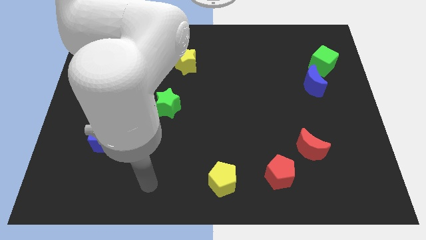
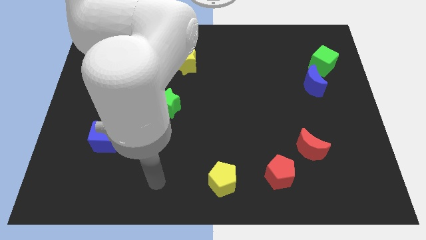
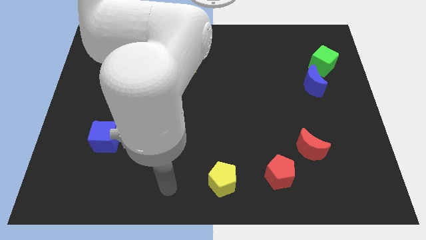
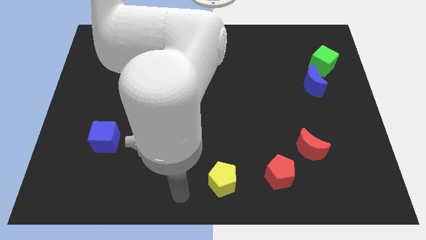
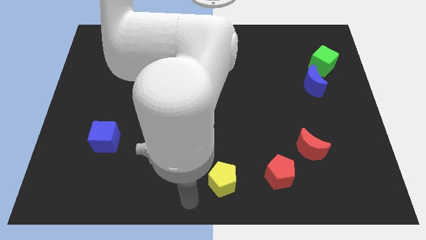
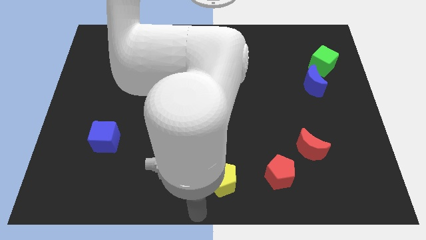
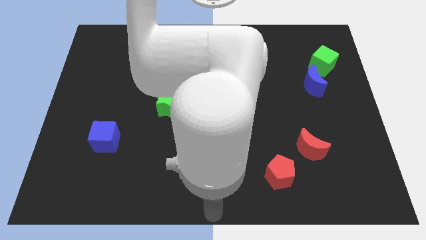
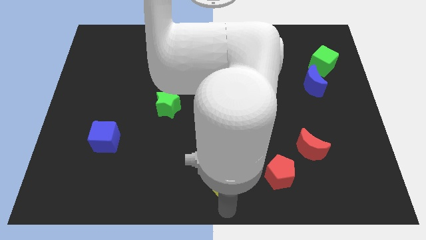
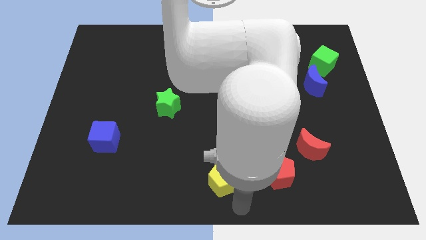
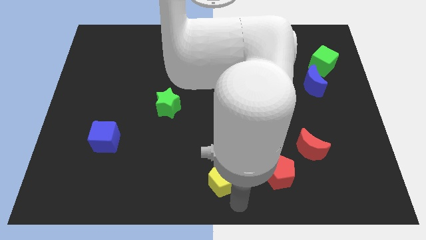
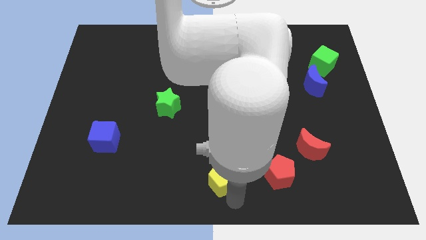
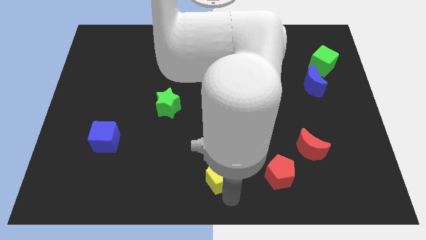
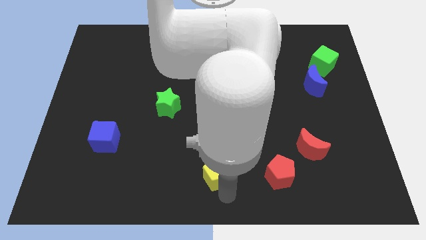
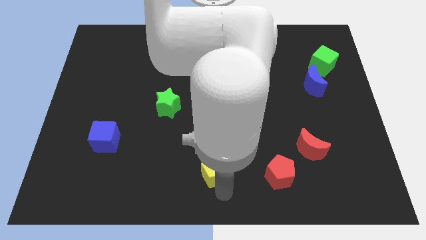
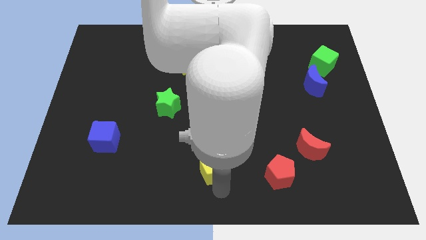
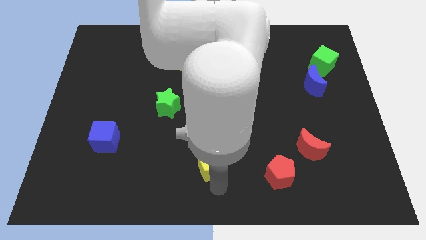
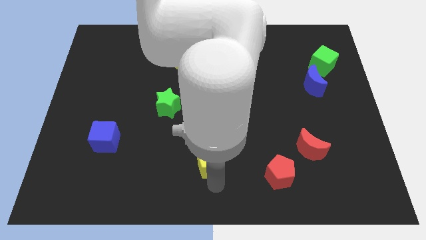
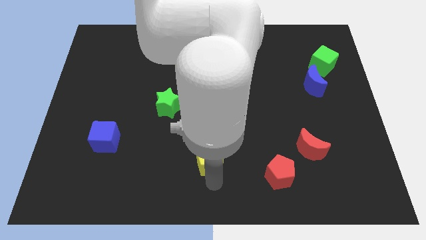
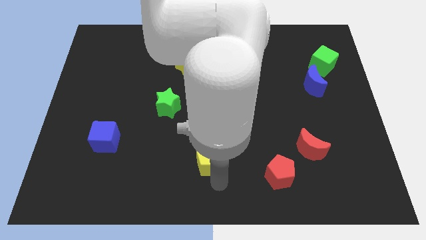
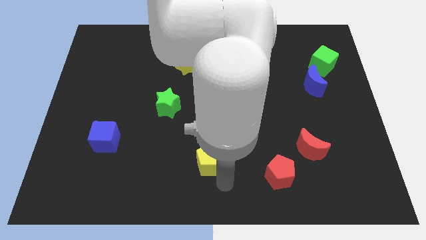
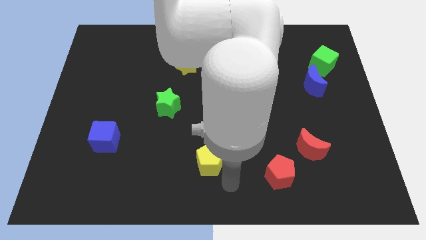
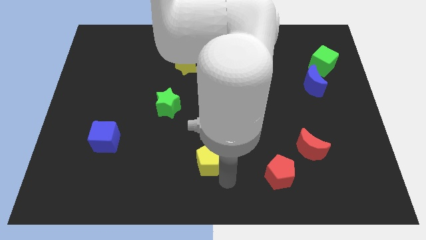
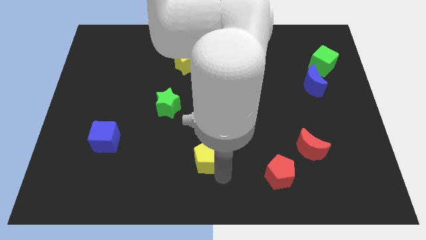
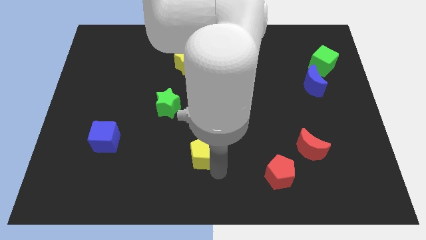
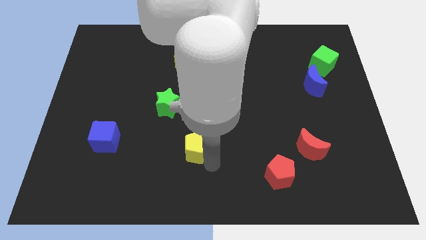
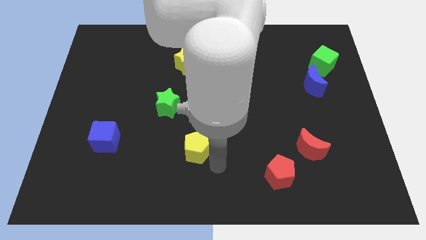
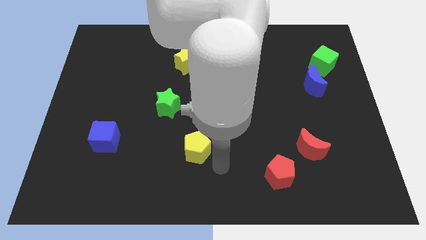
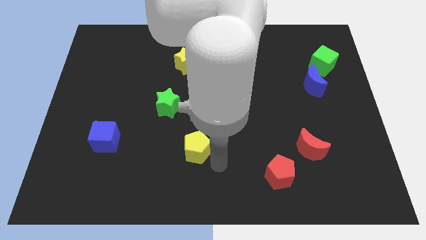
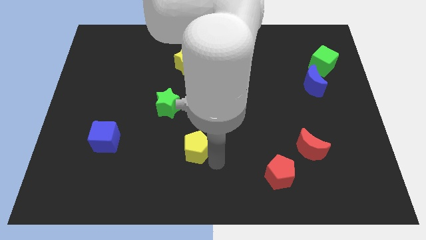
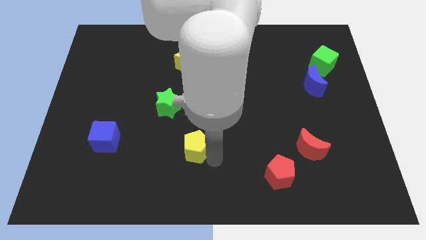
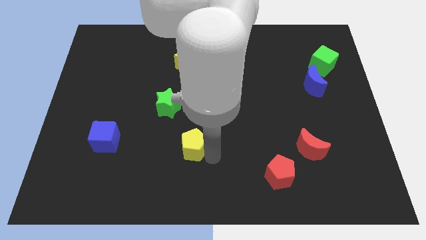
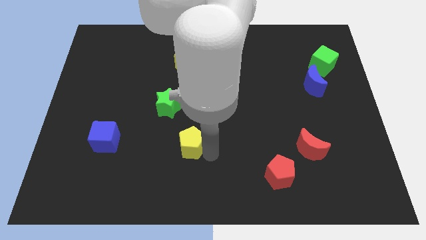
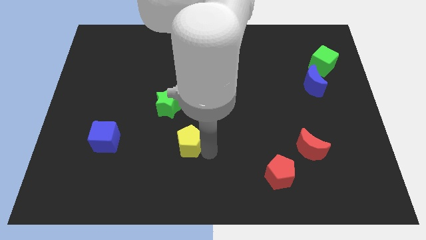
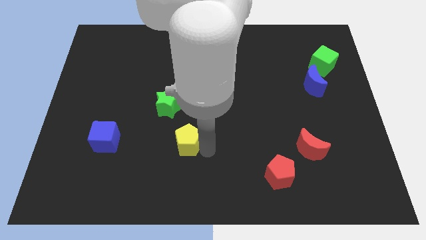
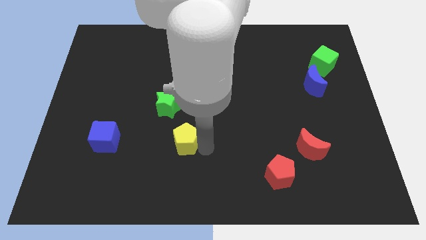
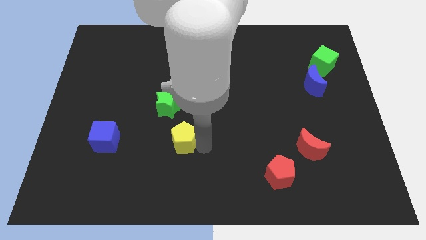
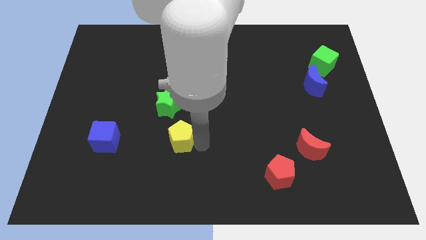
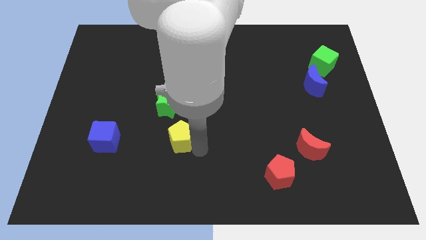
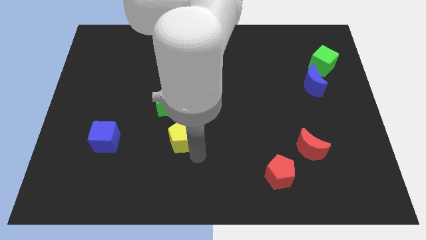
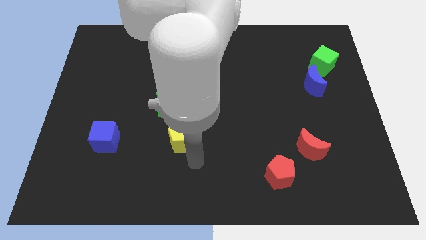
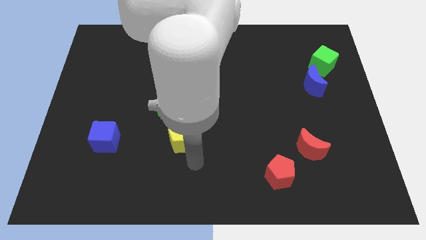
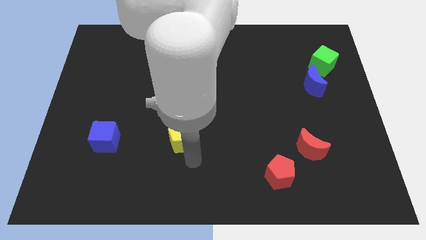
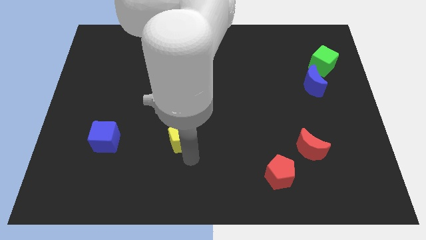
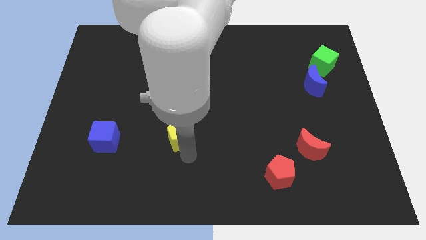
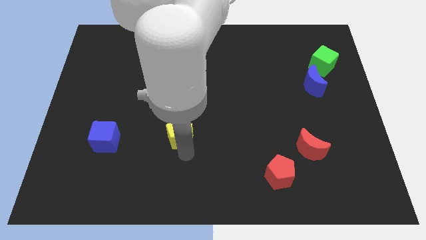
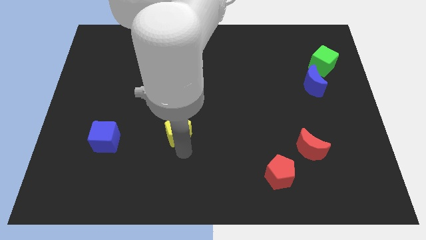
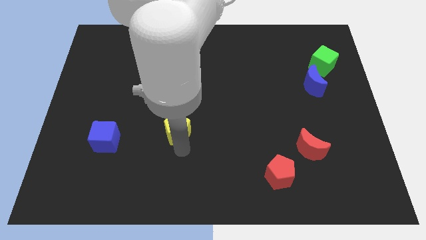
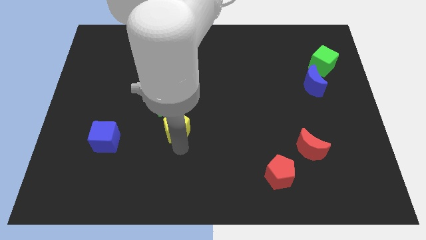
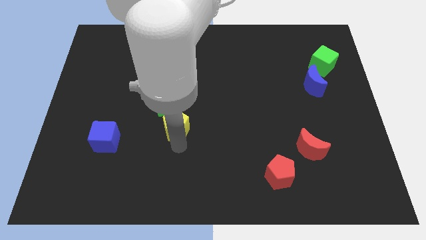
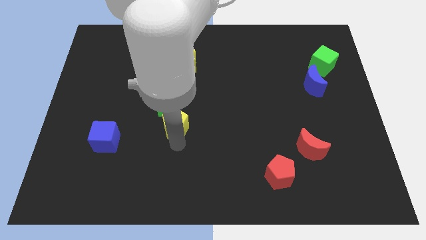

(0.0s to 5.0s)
move the yellow pentagon next to the green star

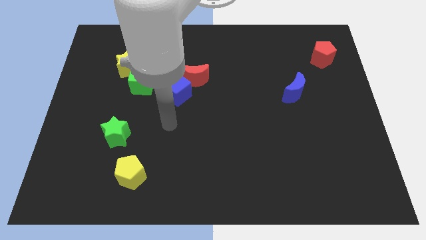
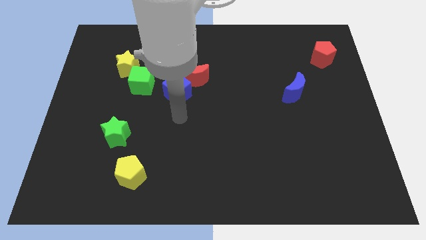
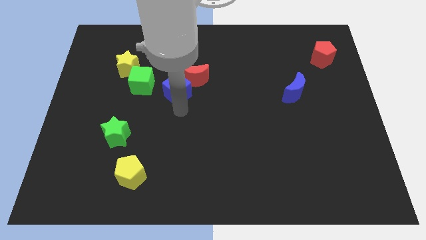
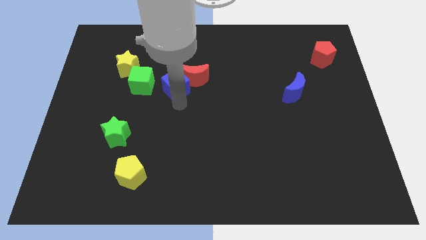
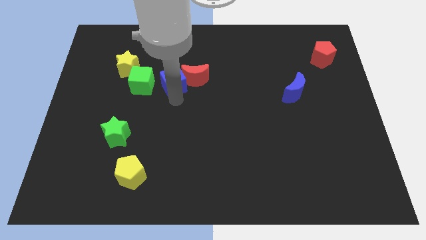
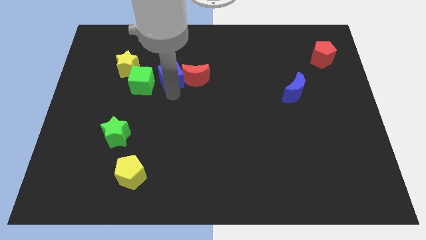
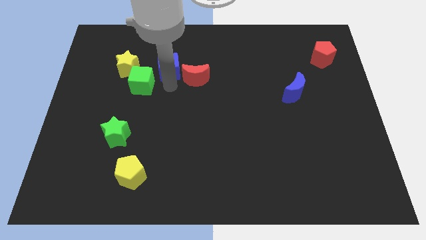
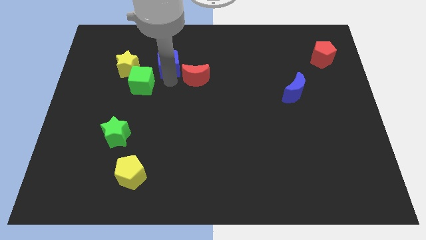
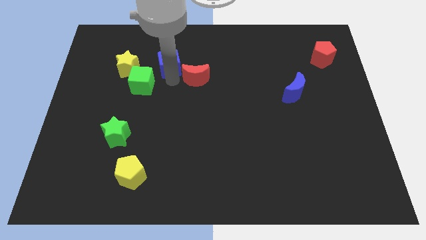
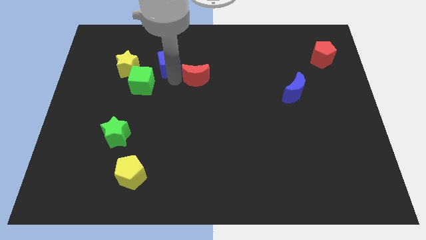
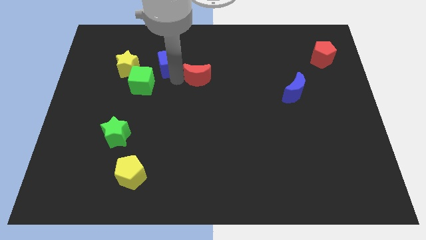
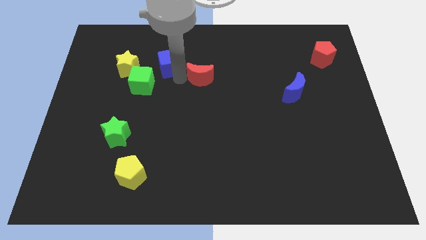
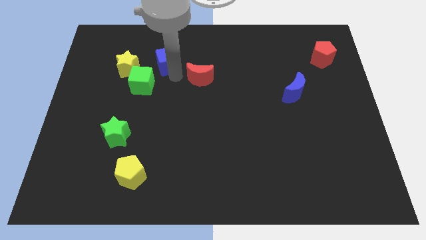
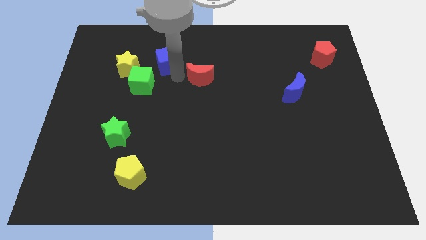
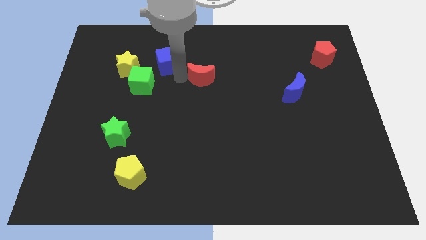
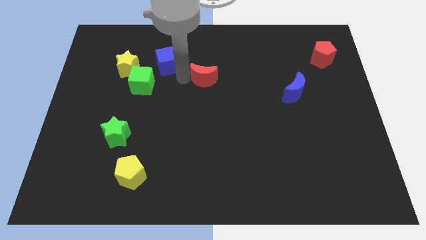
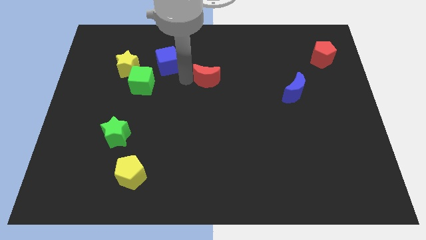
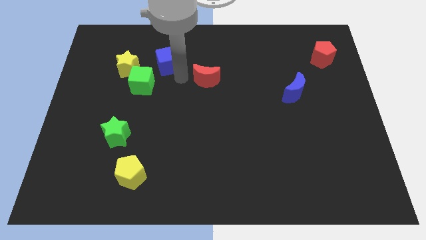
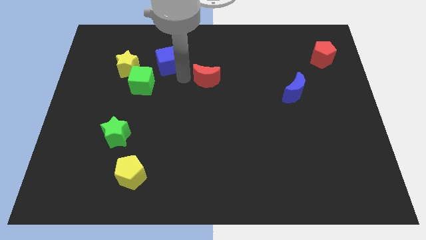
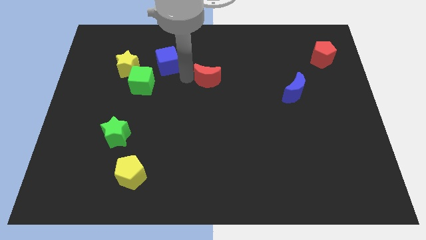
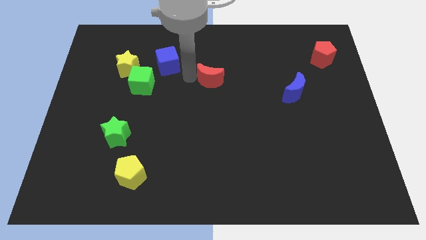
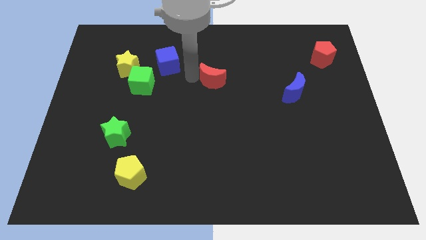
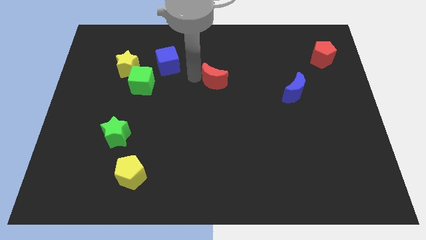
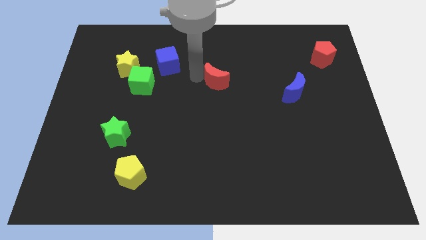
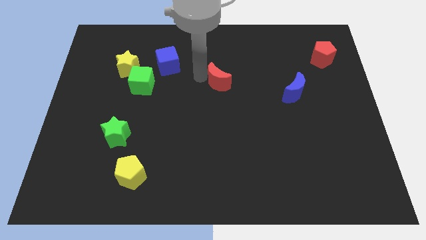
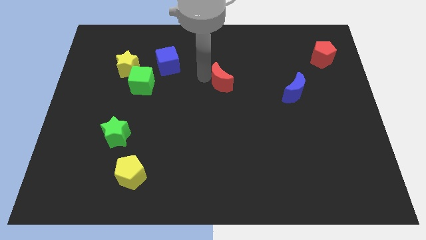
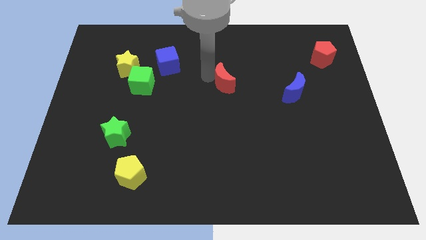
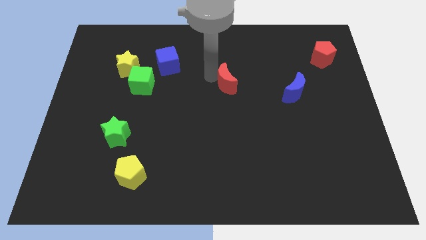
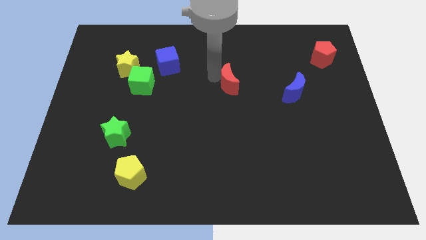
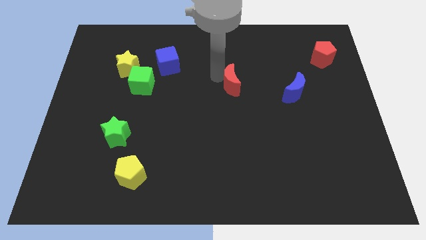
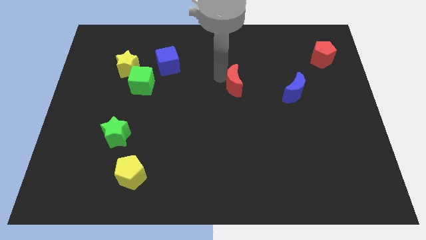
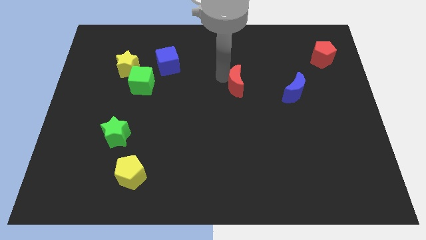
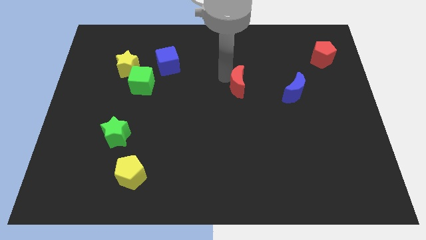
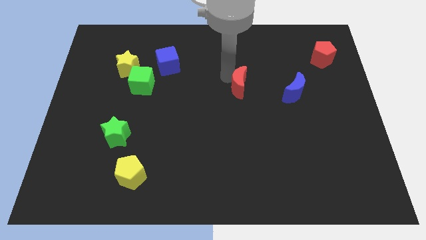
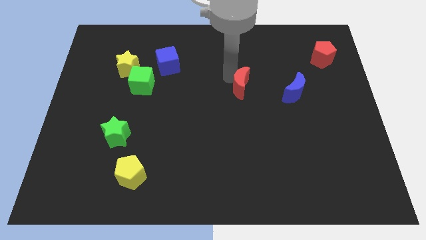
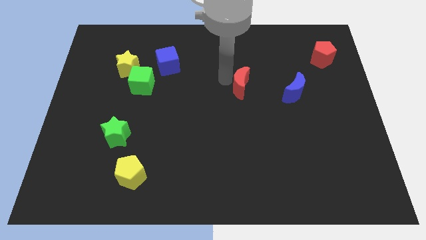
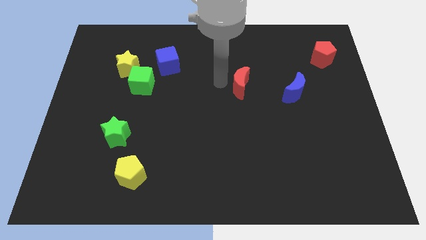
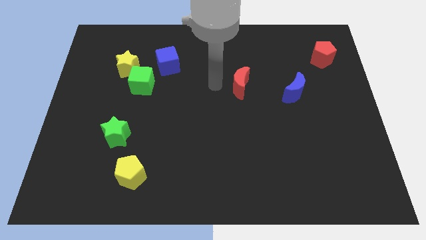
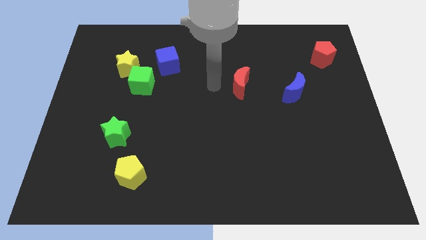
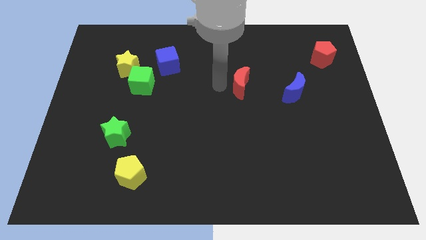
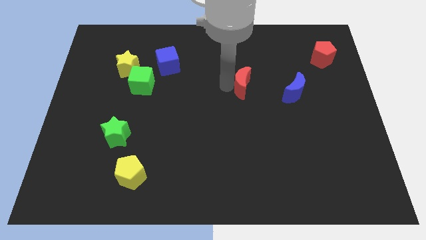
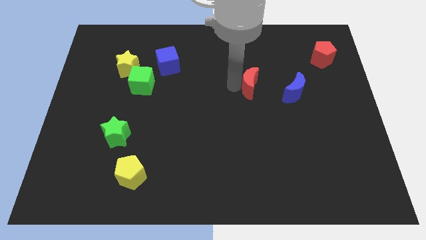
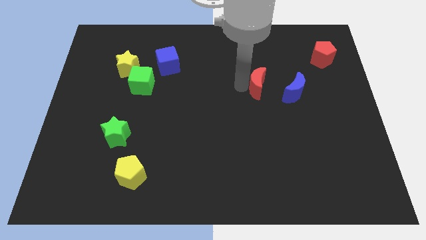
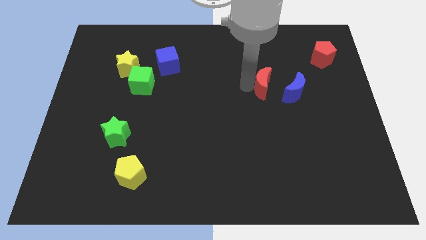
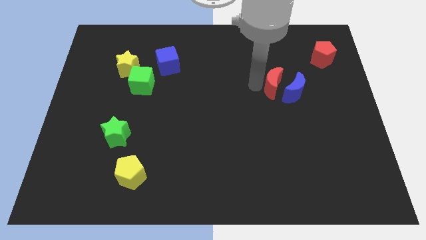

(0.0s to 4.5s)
slide the red moon next to the blue moon
